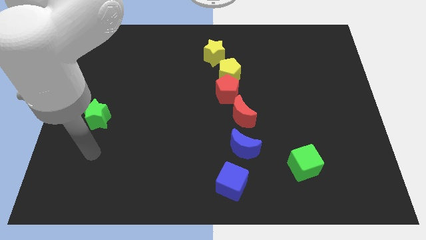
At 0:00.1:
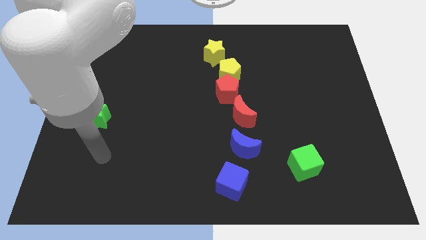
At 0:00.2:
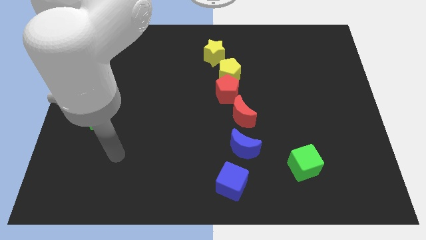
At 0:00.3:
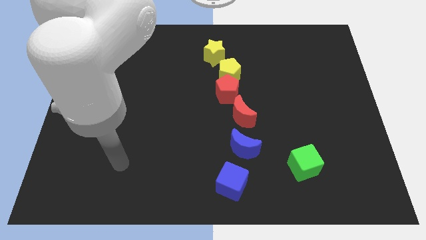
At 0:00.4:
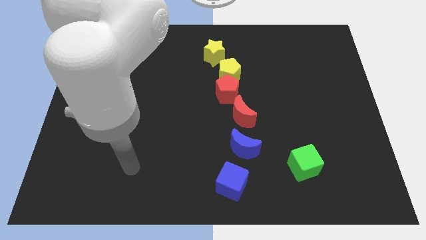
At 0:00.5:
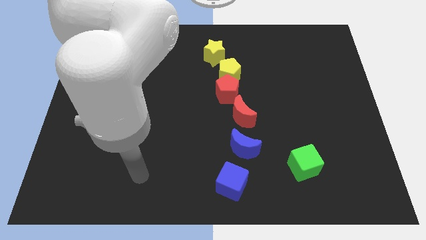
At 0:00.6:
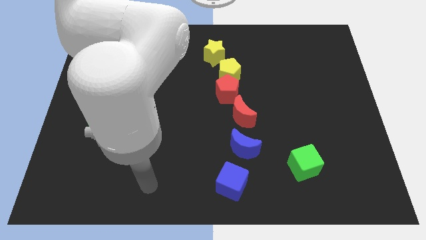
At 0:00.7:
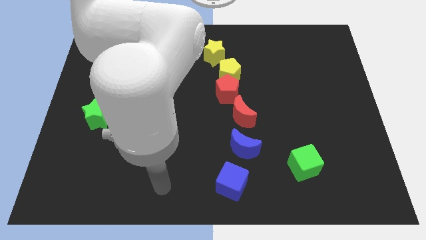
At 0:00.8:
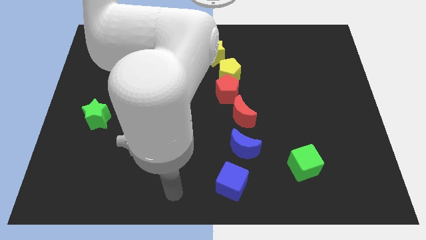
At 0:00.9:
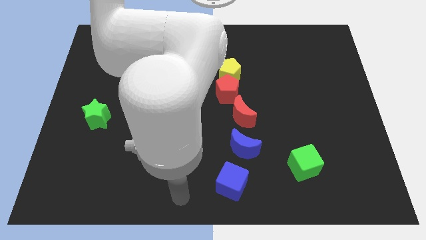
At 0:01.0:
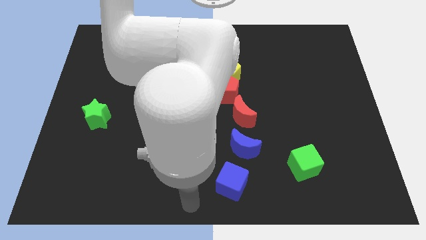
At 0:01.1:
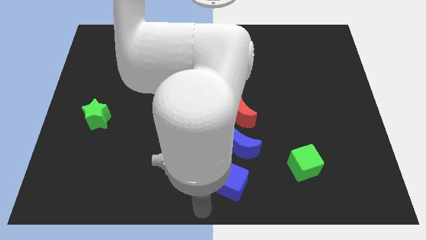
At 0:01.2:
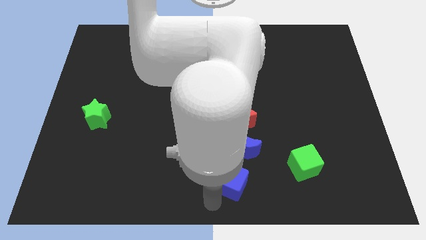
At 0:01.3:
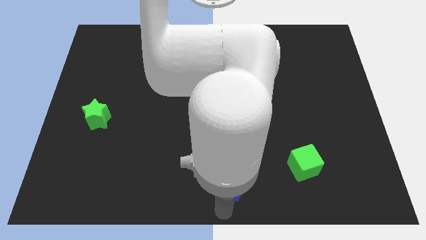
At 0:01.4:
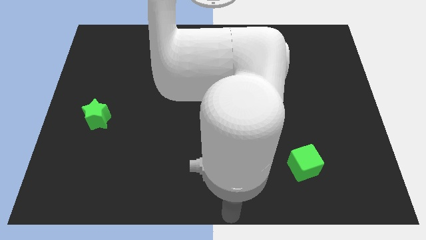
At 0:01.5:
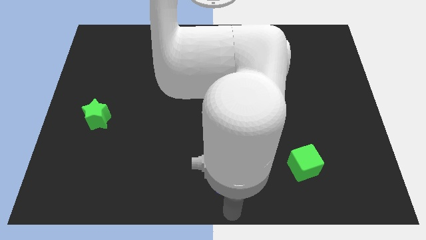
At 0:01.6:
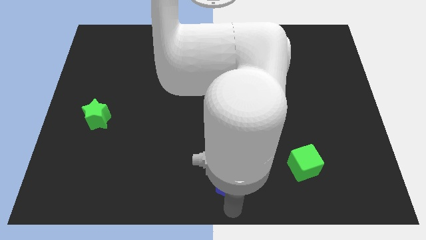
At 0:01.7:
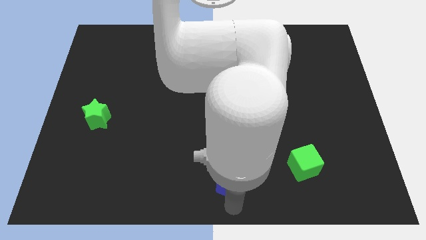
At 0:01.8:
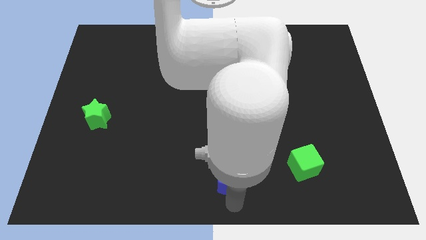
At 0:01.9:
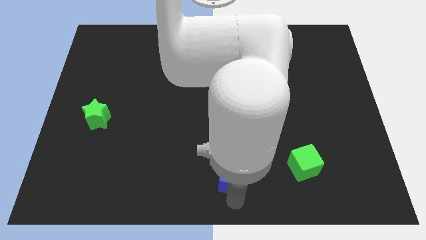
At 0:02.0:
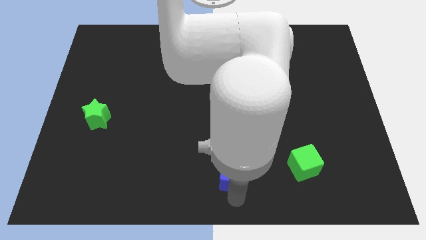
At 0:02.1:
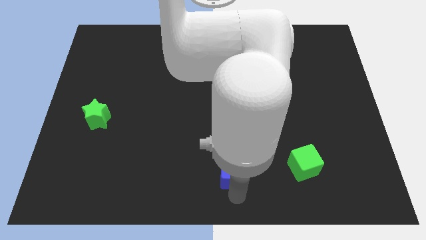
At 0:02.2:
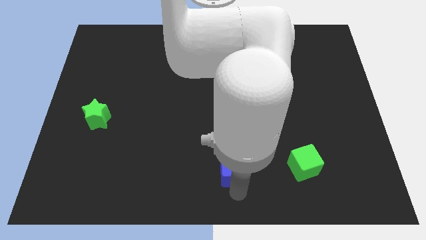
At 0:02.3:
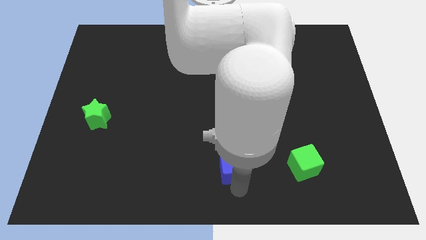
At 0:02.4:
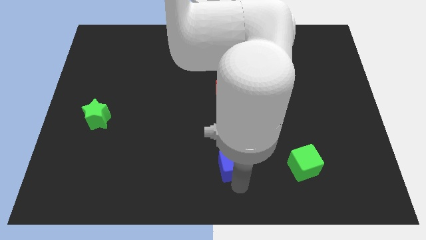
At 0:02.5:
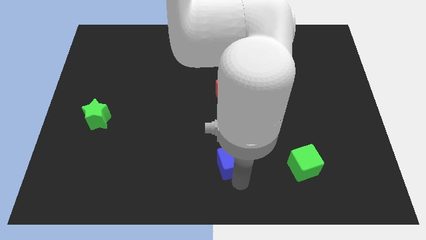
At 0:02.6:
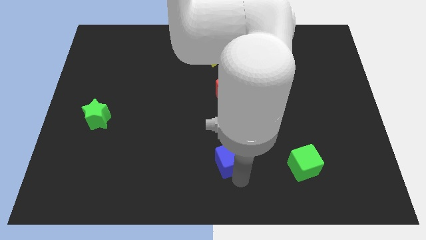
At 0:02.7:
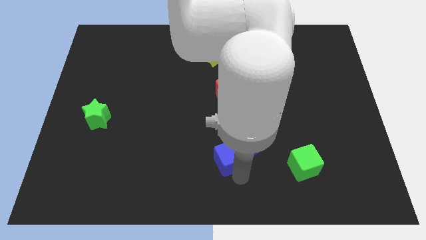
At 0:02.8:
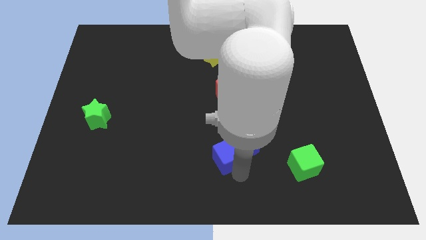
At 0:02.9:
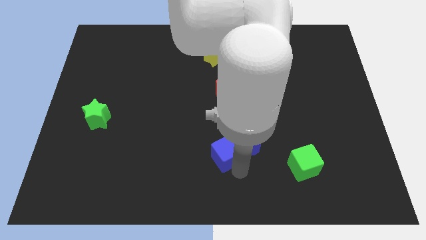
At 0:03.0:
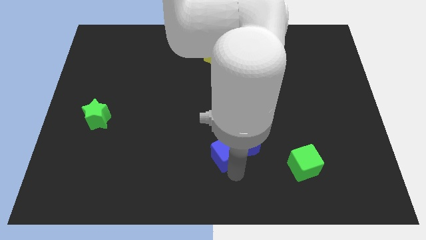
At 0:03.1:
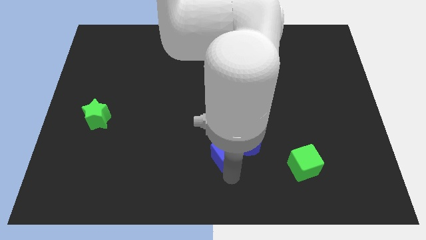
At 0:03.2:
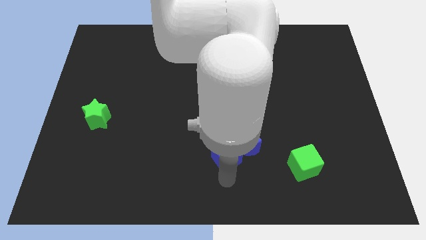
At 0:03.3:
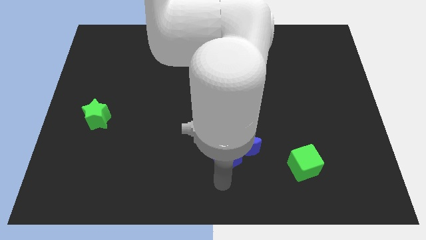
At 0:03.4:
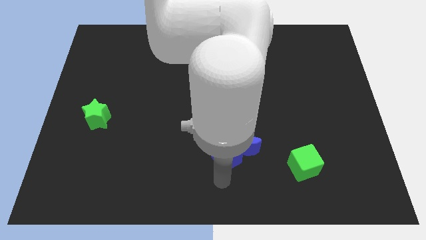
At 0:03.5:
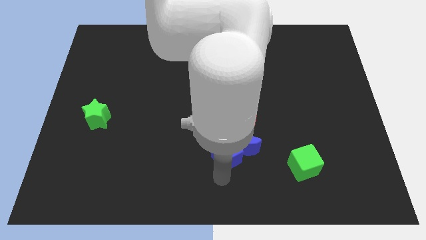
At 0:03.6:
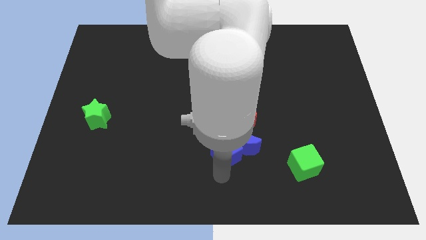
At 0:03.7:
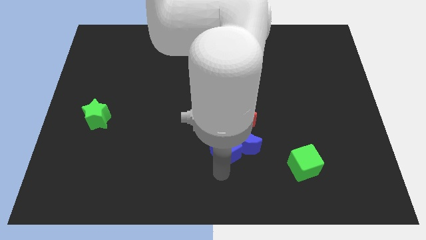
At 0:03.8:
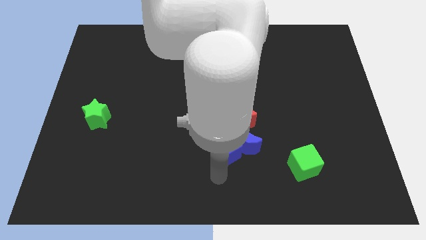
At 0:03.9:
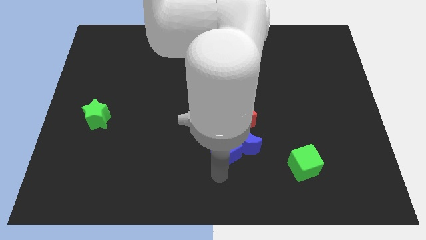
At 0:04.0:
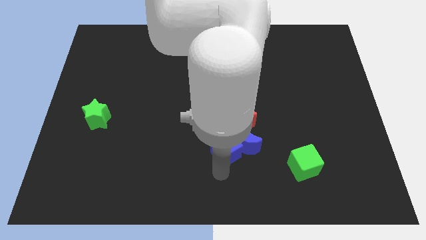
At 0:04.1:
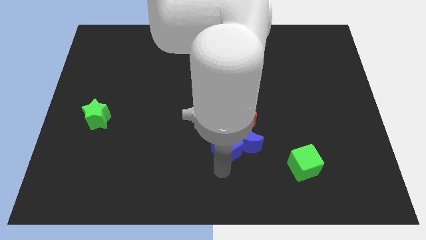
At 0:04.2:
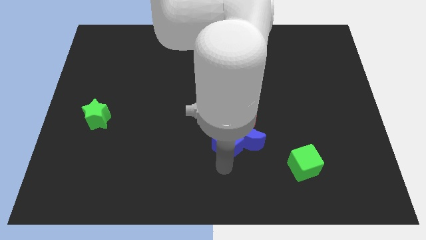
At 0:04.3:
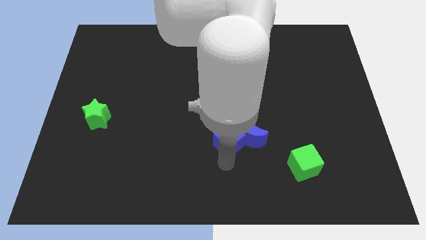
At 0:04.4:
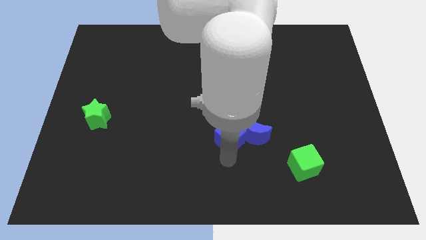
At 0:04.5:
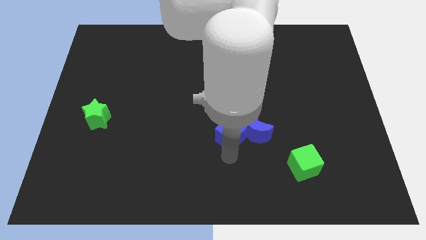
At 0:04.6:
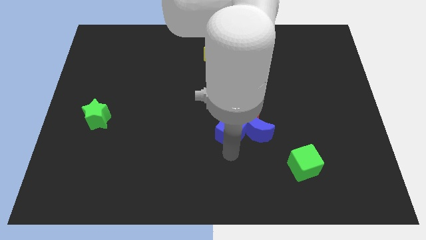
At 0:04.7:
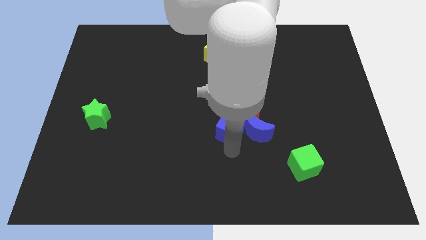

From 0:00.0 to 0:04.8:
put the blue cube towards the red moon

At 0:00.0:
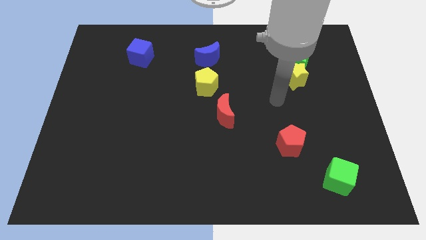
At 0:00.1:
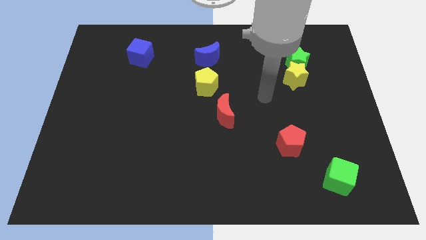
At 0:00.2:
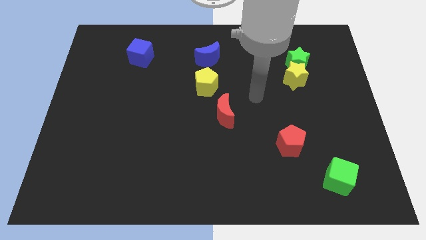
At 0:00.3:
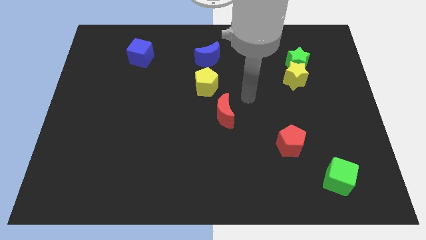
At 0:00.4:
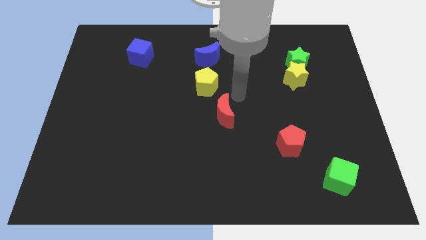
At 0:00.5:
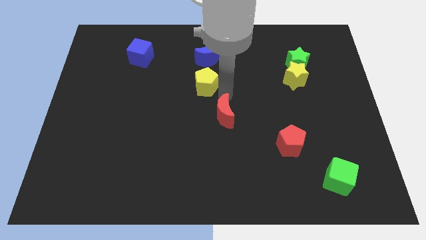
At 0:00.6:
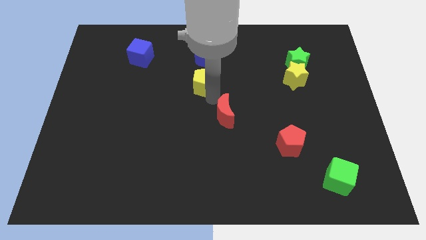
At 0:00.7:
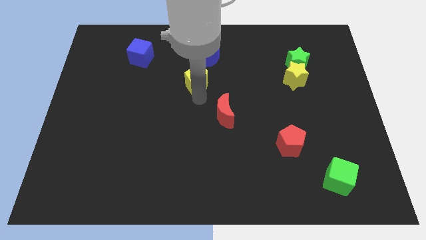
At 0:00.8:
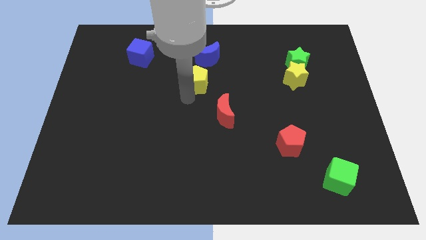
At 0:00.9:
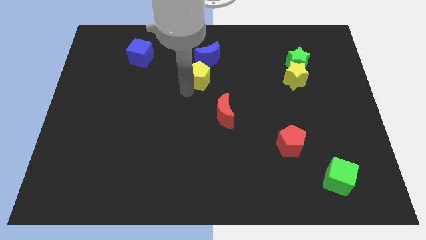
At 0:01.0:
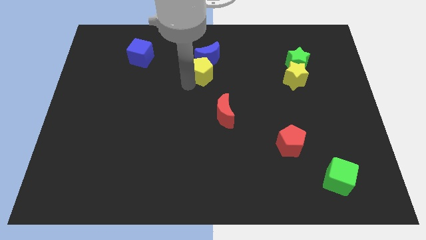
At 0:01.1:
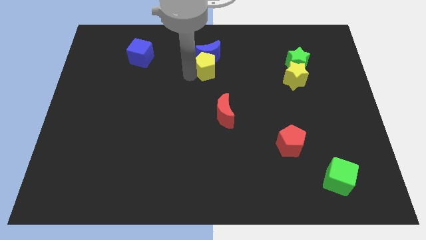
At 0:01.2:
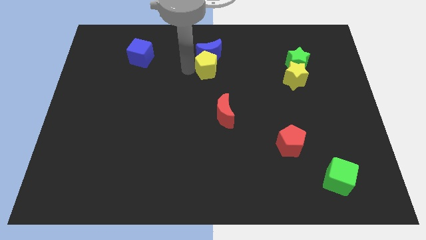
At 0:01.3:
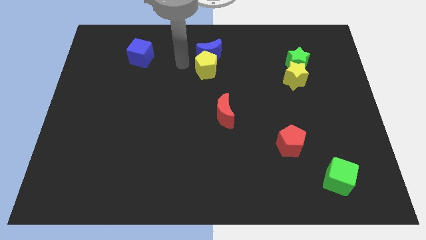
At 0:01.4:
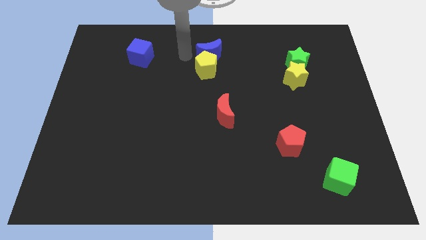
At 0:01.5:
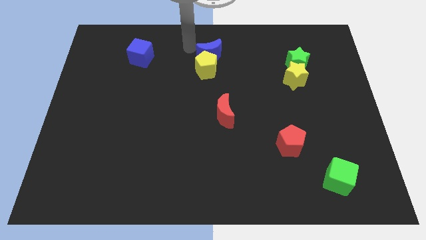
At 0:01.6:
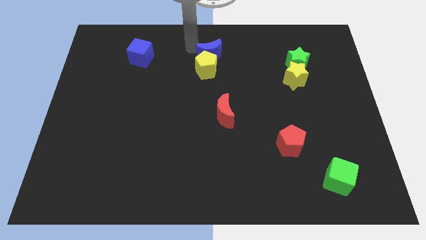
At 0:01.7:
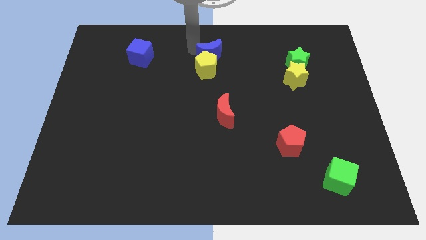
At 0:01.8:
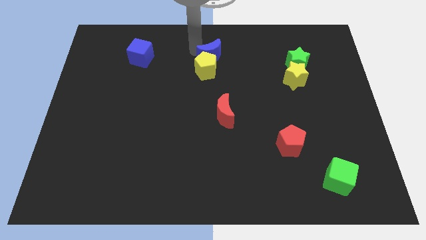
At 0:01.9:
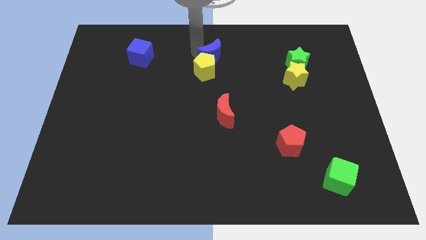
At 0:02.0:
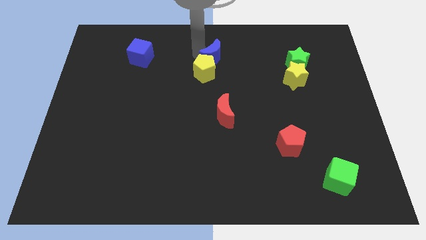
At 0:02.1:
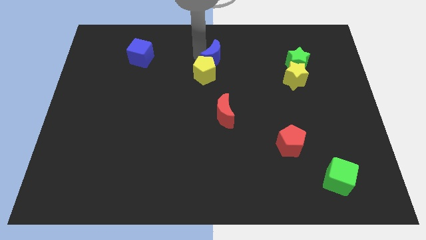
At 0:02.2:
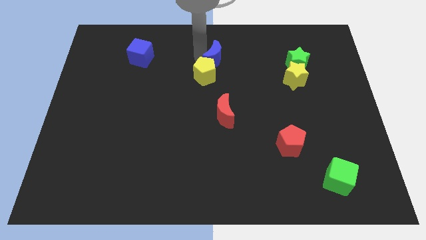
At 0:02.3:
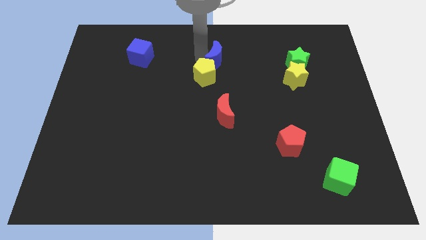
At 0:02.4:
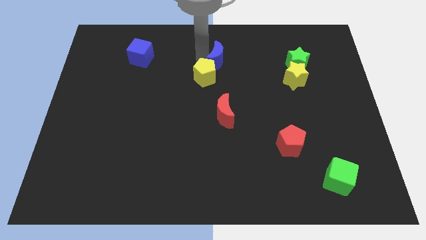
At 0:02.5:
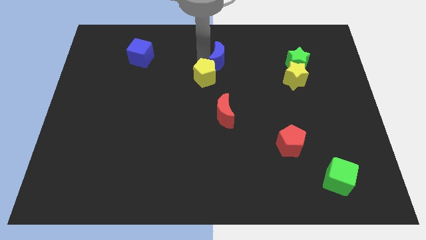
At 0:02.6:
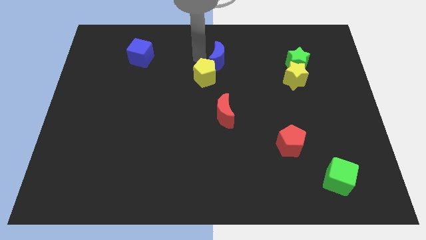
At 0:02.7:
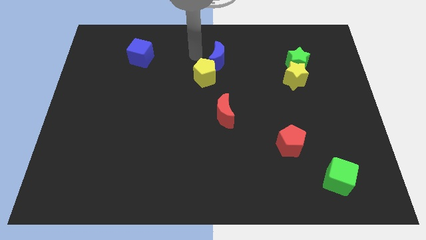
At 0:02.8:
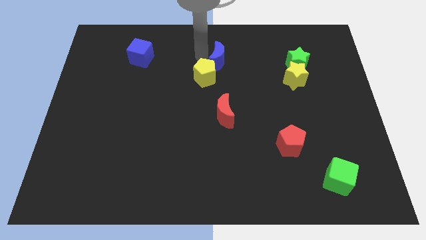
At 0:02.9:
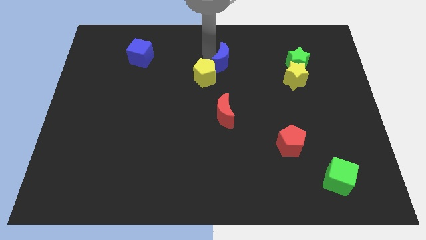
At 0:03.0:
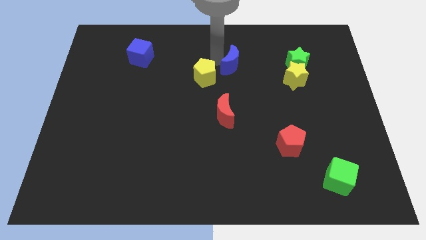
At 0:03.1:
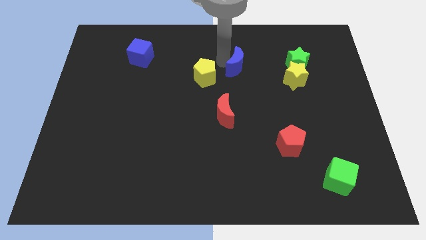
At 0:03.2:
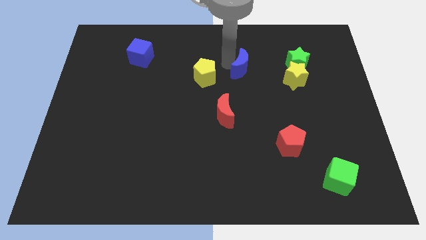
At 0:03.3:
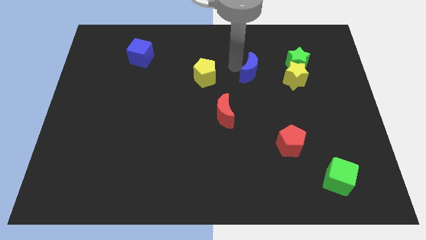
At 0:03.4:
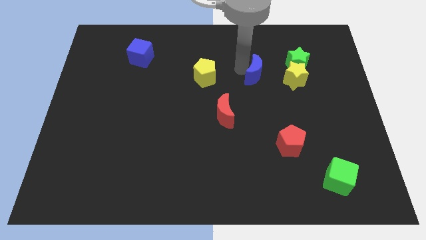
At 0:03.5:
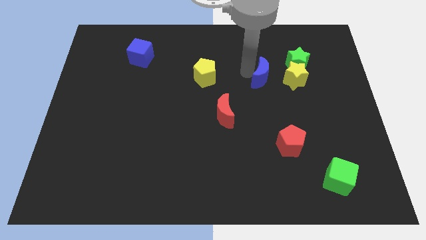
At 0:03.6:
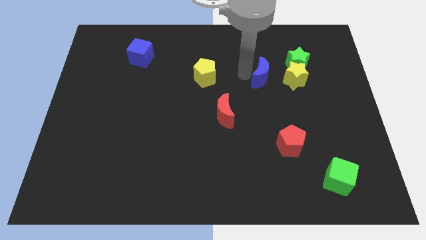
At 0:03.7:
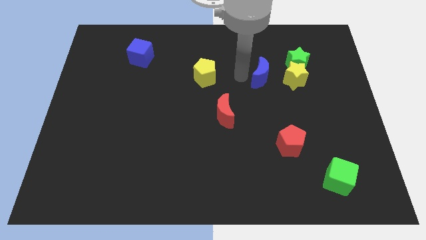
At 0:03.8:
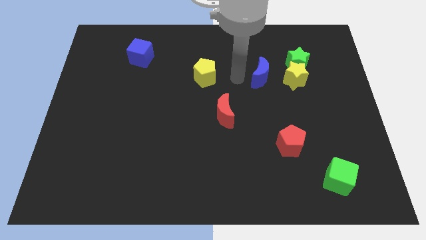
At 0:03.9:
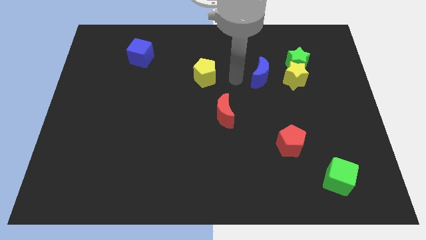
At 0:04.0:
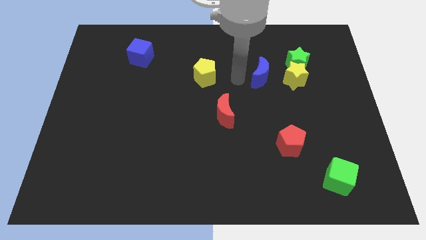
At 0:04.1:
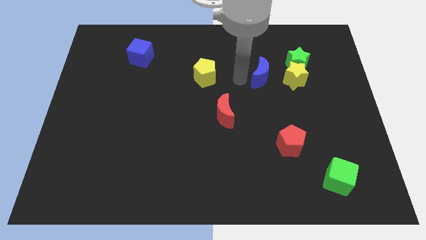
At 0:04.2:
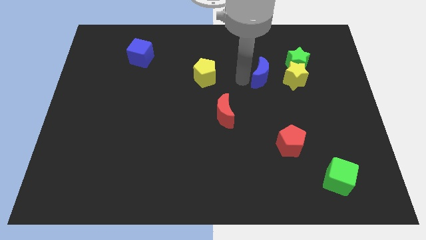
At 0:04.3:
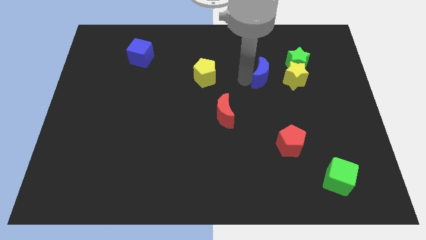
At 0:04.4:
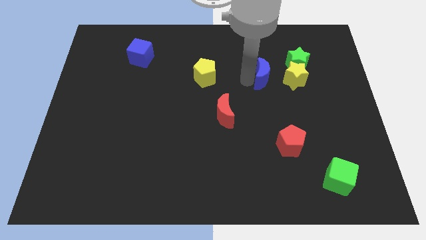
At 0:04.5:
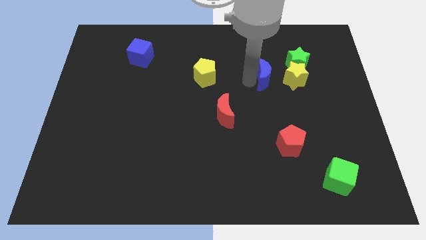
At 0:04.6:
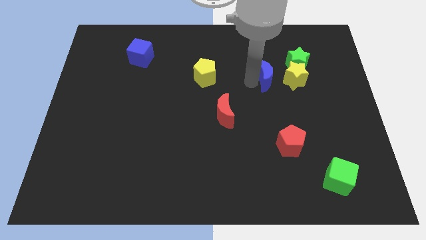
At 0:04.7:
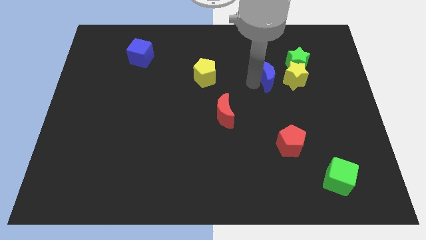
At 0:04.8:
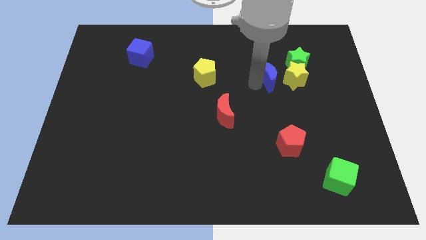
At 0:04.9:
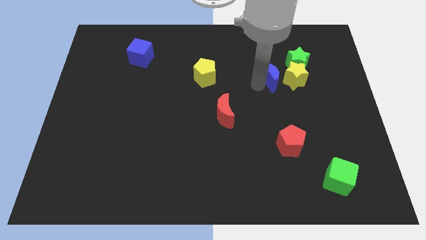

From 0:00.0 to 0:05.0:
slide the blue moon towards the yellow star
